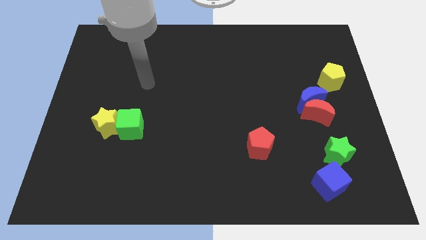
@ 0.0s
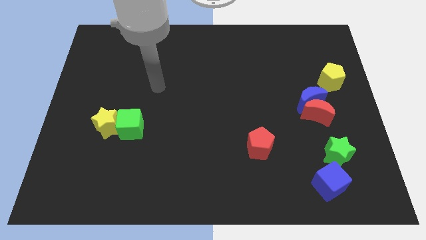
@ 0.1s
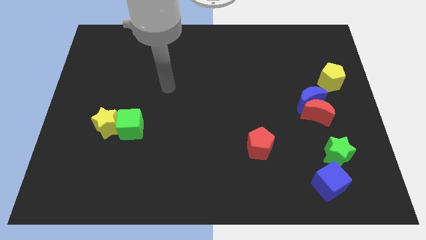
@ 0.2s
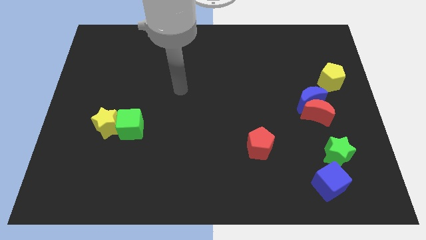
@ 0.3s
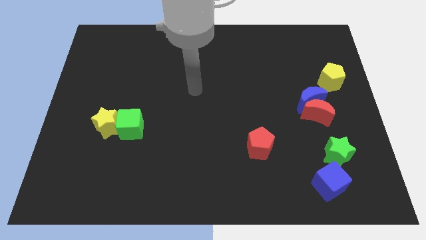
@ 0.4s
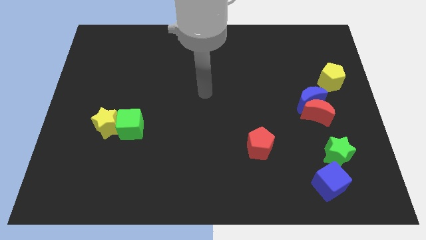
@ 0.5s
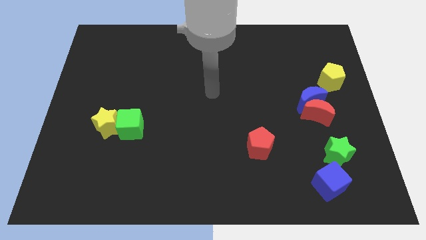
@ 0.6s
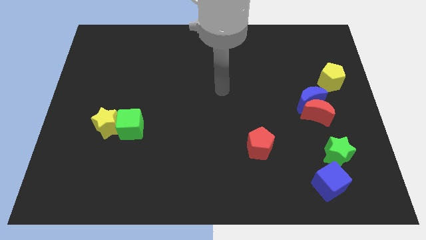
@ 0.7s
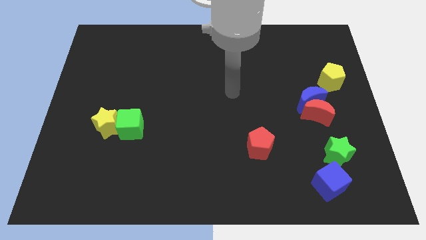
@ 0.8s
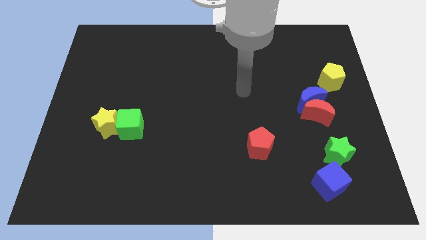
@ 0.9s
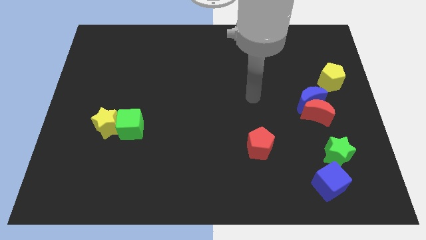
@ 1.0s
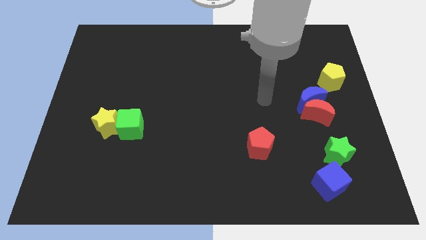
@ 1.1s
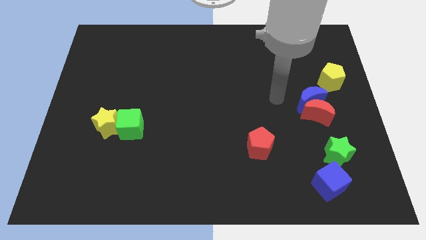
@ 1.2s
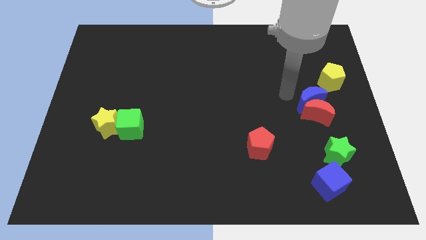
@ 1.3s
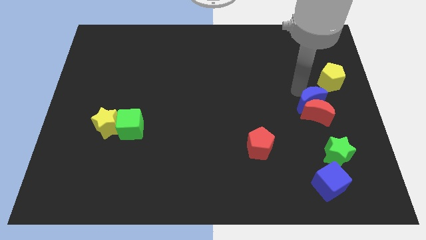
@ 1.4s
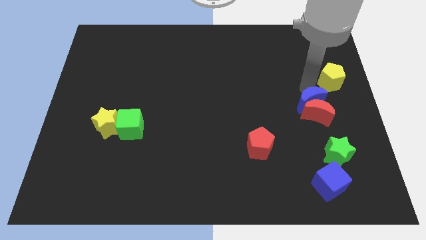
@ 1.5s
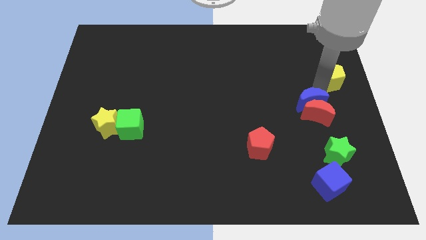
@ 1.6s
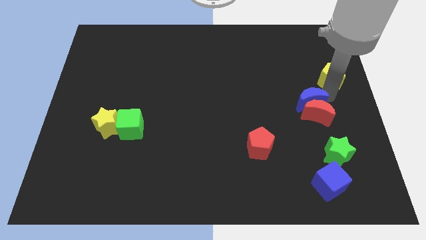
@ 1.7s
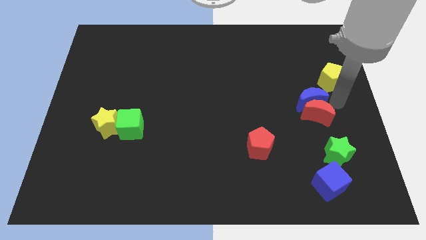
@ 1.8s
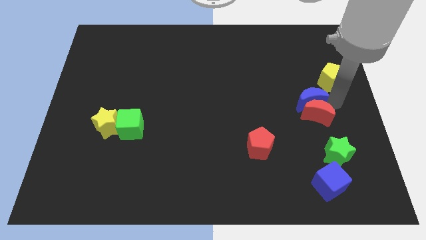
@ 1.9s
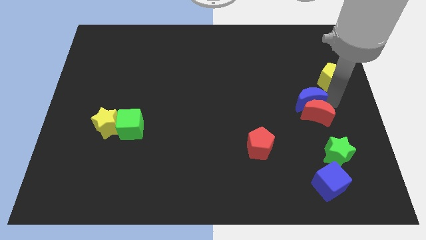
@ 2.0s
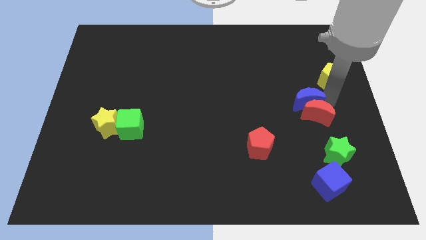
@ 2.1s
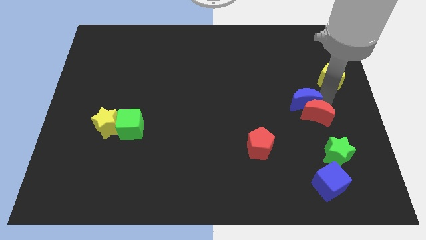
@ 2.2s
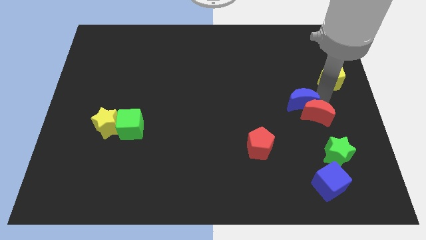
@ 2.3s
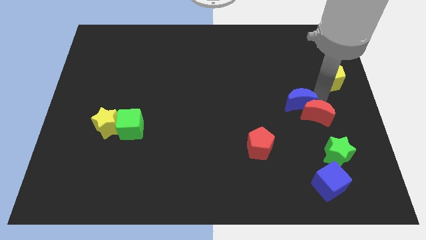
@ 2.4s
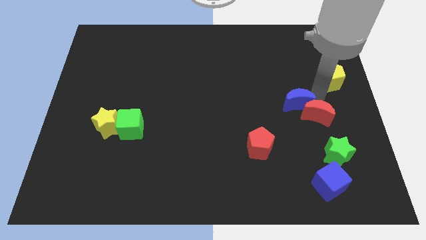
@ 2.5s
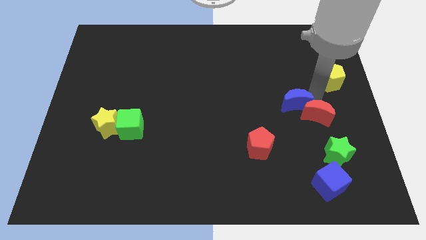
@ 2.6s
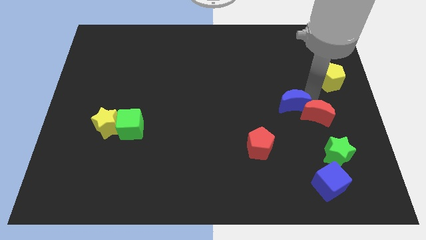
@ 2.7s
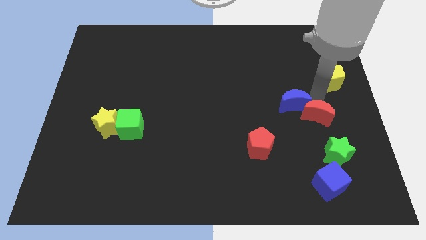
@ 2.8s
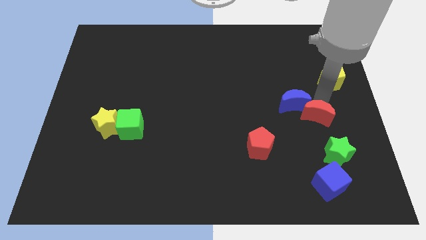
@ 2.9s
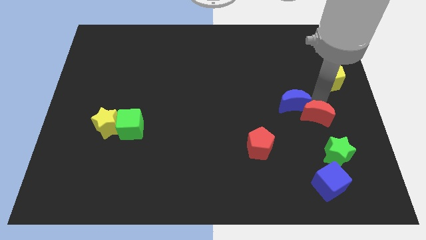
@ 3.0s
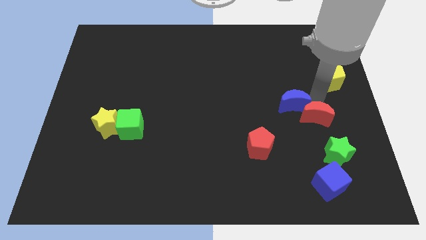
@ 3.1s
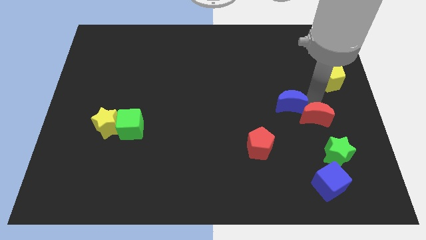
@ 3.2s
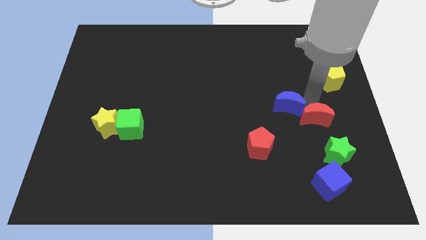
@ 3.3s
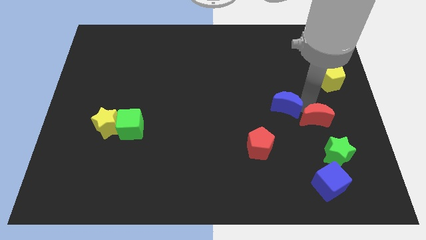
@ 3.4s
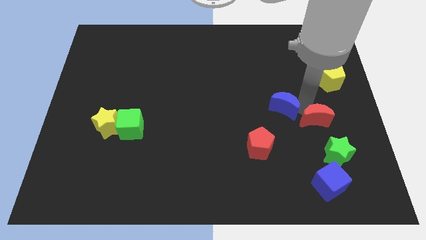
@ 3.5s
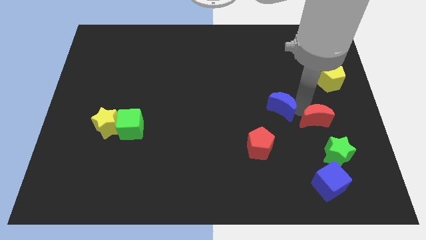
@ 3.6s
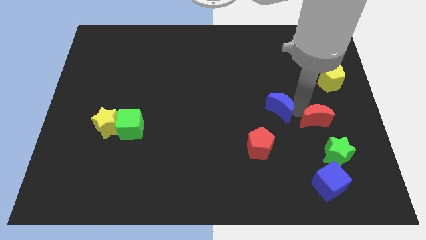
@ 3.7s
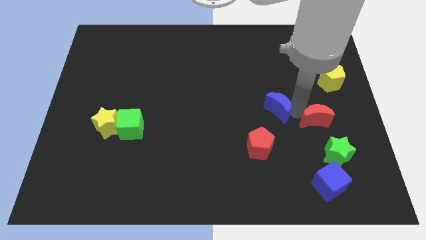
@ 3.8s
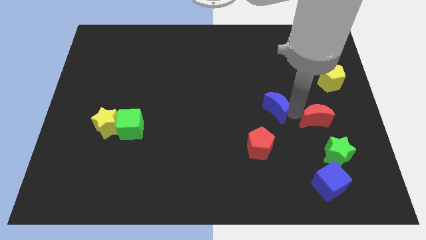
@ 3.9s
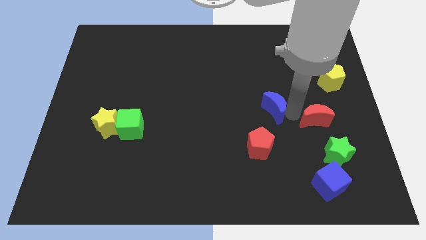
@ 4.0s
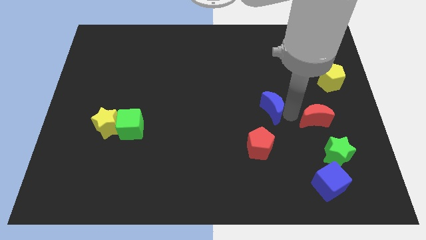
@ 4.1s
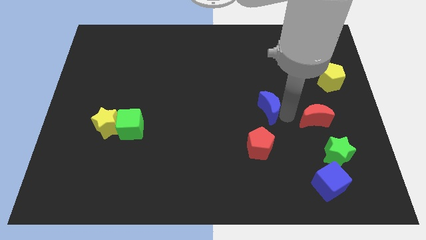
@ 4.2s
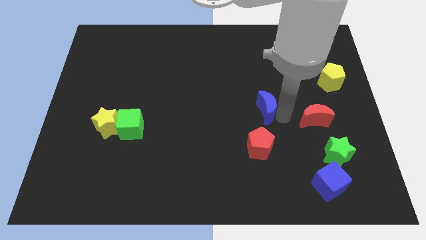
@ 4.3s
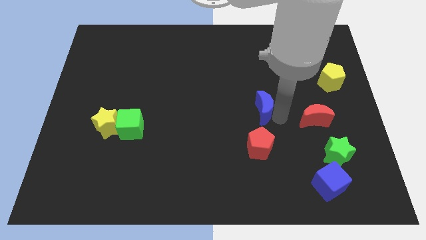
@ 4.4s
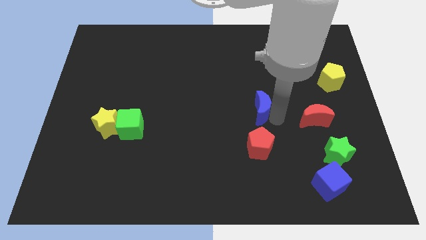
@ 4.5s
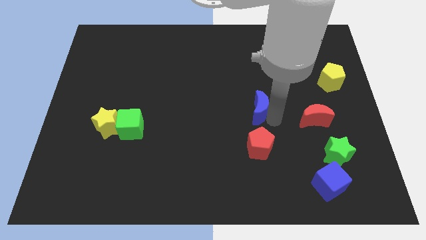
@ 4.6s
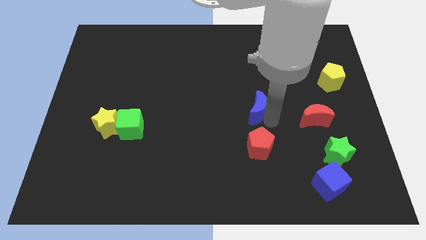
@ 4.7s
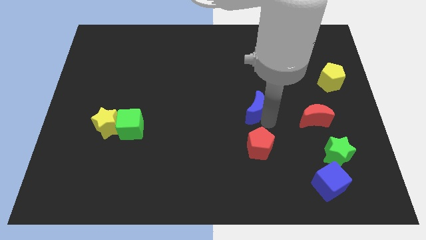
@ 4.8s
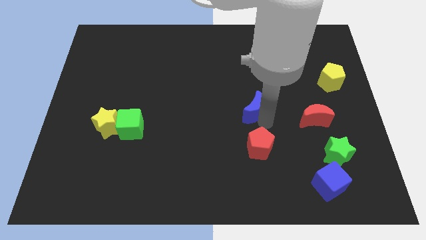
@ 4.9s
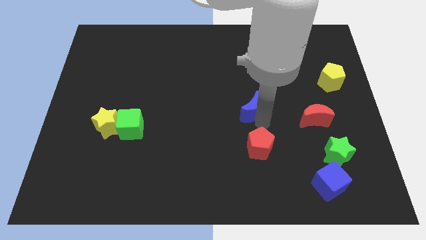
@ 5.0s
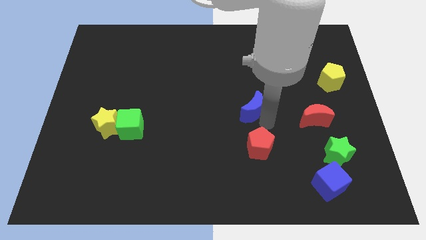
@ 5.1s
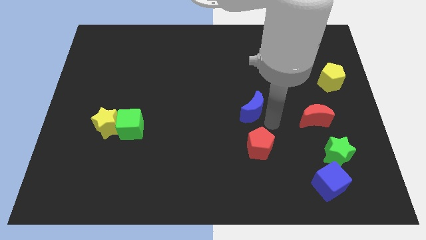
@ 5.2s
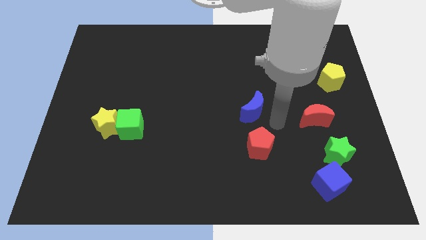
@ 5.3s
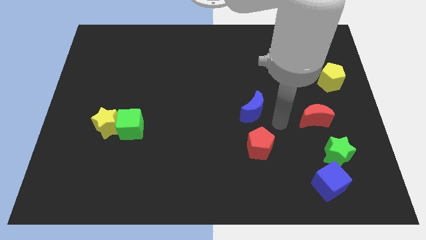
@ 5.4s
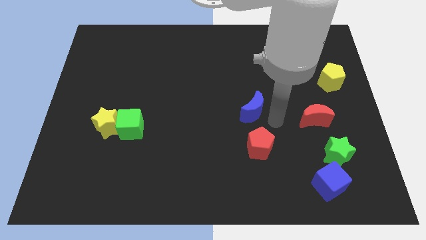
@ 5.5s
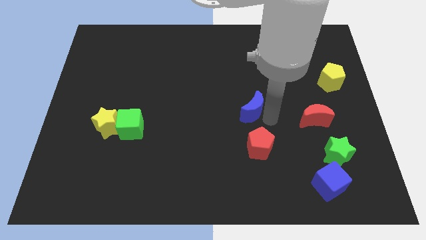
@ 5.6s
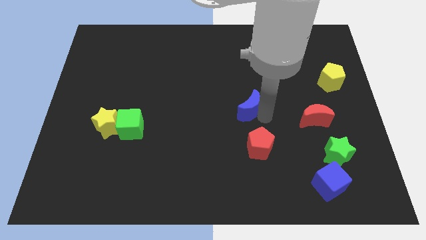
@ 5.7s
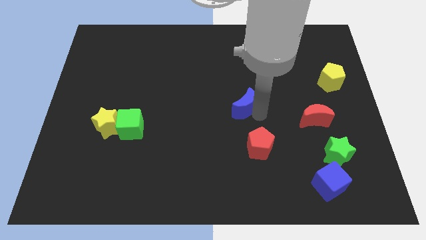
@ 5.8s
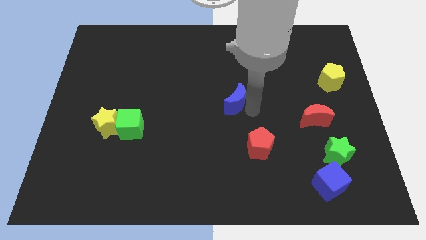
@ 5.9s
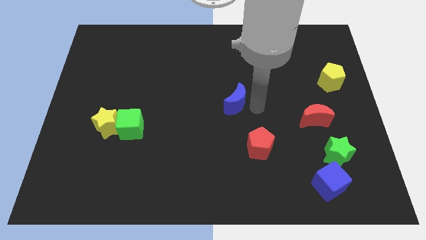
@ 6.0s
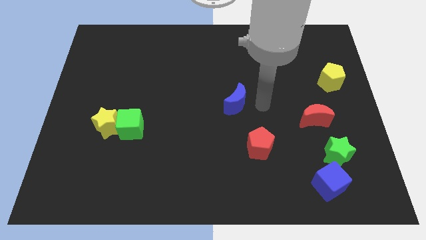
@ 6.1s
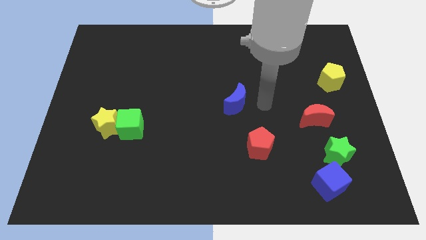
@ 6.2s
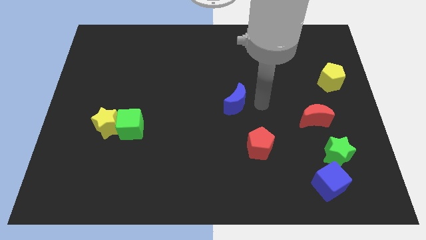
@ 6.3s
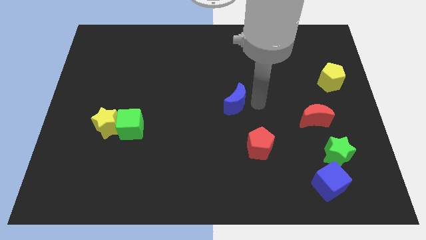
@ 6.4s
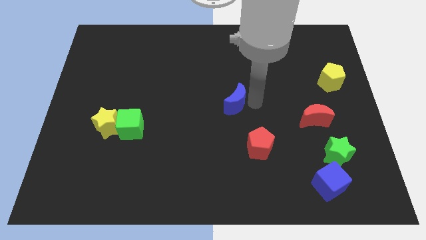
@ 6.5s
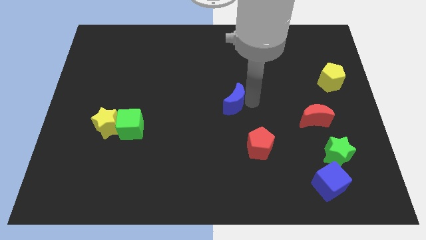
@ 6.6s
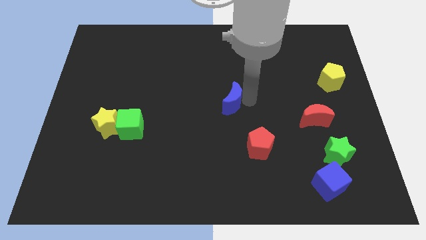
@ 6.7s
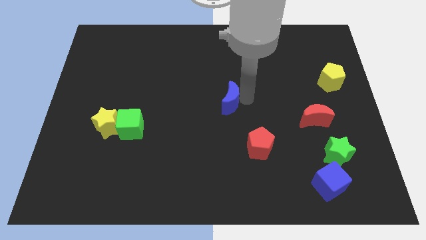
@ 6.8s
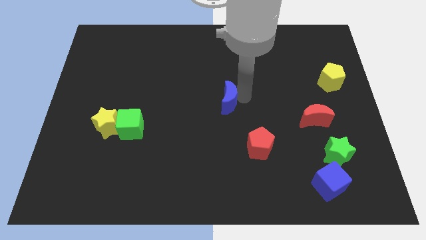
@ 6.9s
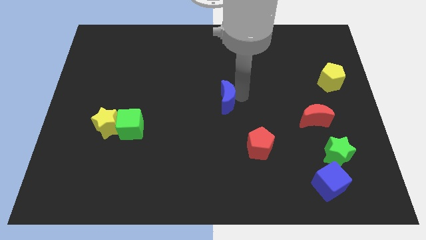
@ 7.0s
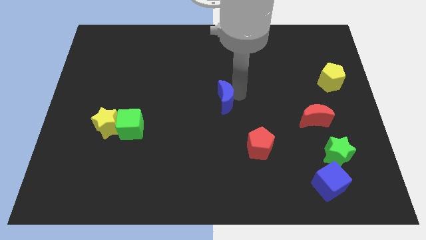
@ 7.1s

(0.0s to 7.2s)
slide the blue moon to the left

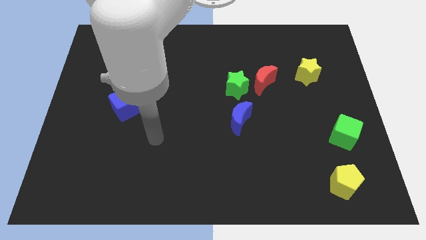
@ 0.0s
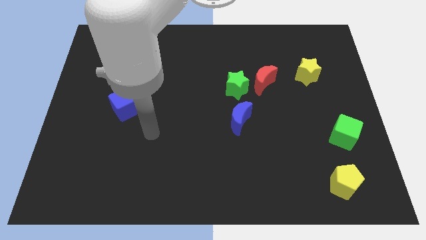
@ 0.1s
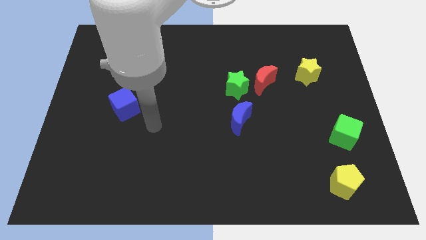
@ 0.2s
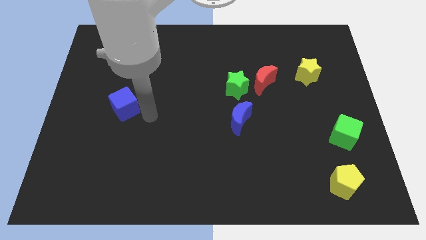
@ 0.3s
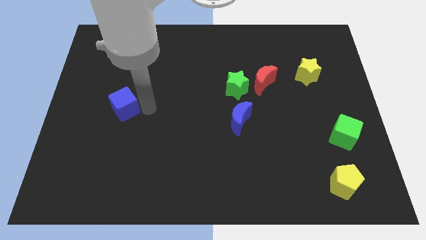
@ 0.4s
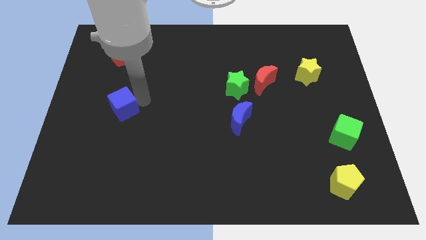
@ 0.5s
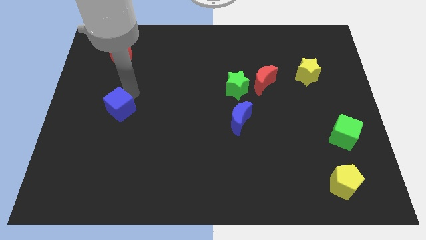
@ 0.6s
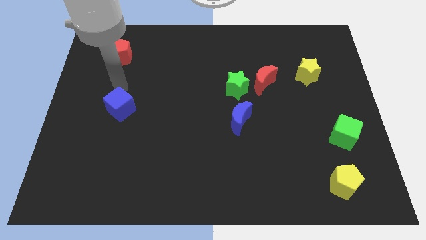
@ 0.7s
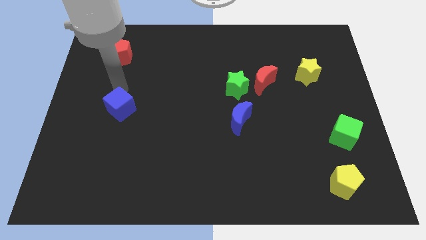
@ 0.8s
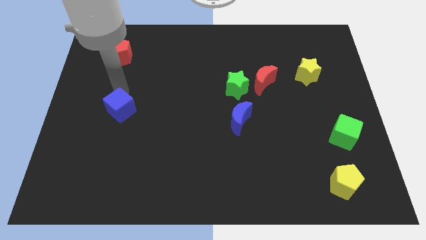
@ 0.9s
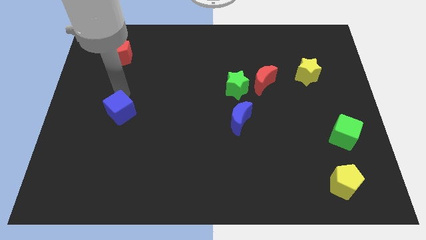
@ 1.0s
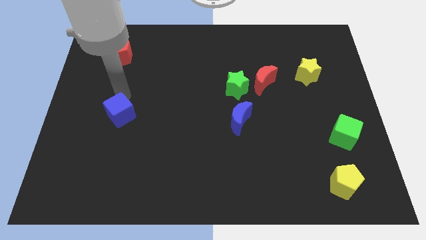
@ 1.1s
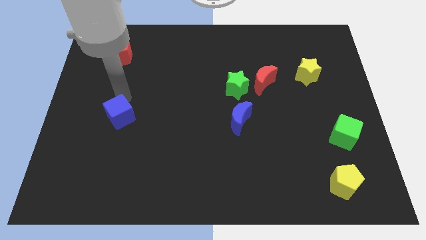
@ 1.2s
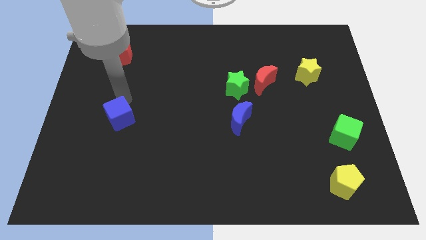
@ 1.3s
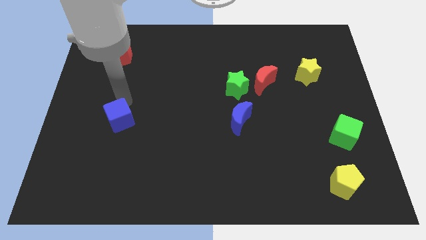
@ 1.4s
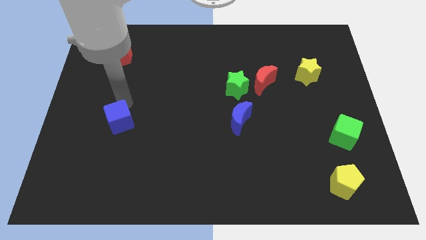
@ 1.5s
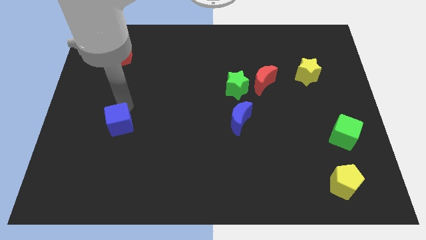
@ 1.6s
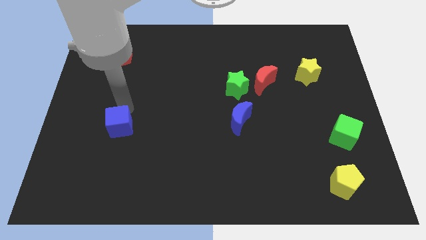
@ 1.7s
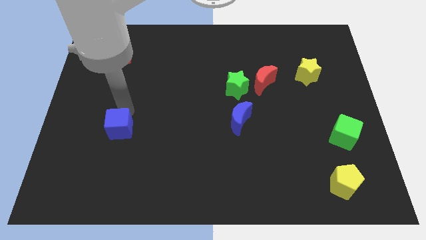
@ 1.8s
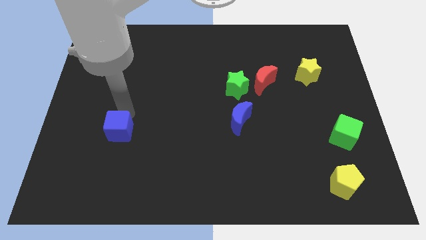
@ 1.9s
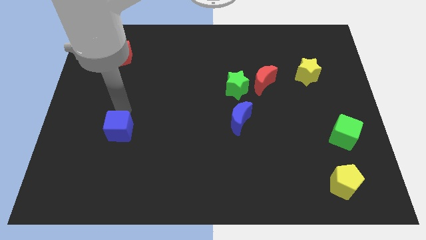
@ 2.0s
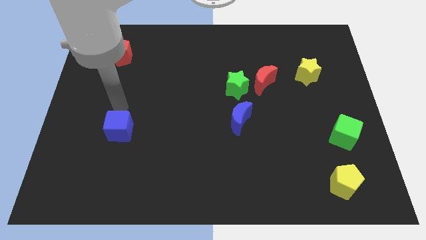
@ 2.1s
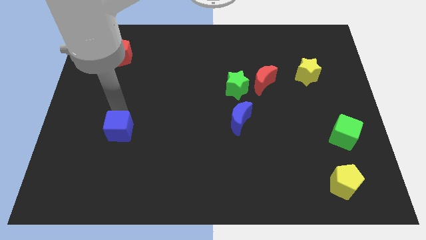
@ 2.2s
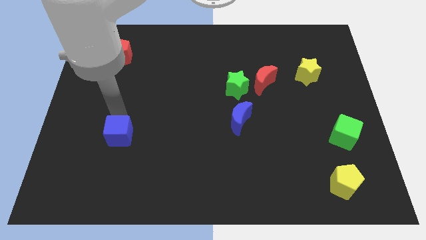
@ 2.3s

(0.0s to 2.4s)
push the blue cube downwards somewhat
